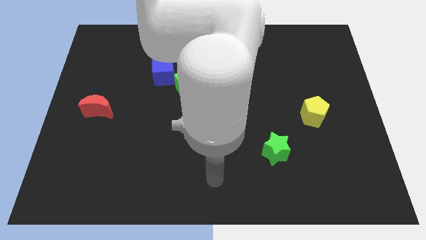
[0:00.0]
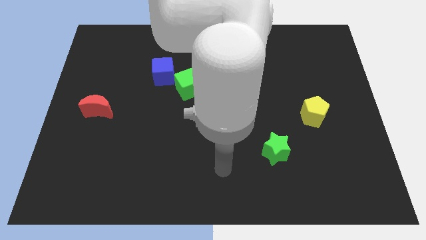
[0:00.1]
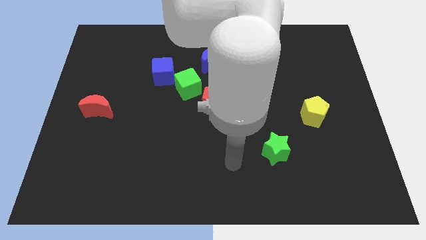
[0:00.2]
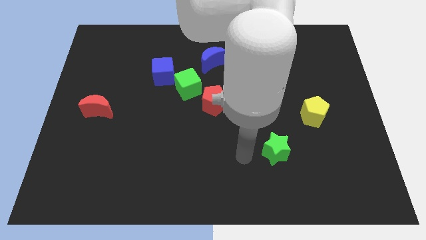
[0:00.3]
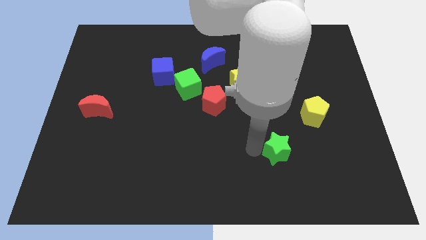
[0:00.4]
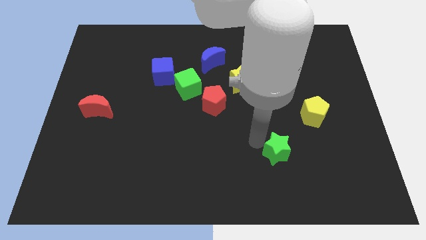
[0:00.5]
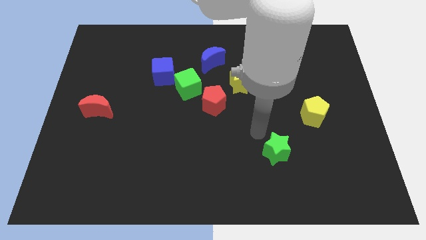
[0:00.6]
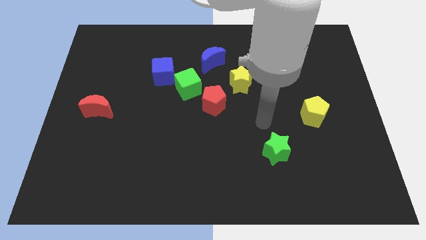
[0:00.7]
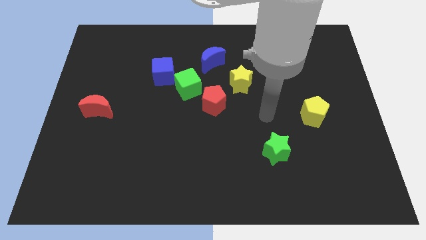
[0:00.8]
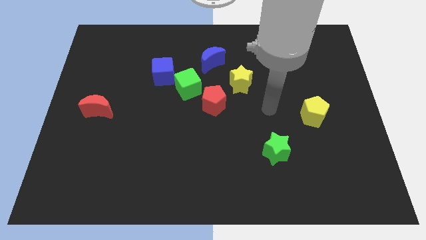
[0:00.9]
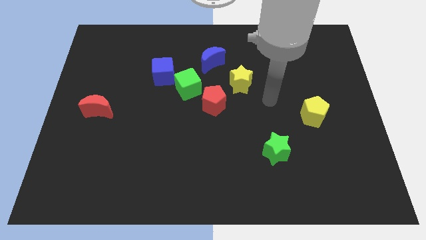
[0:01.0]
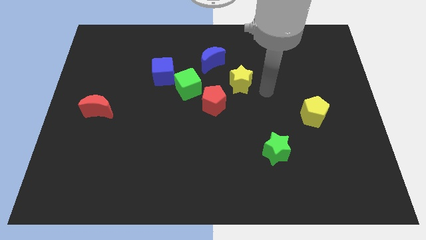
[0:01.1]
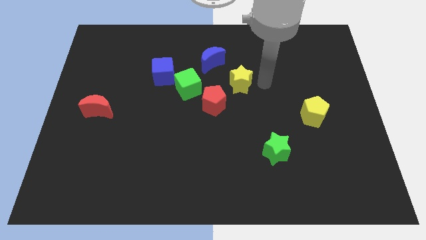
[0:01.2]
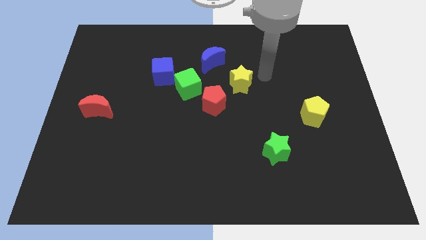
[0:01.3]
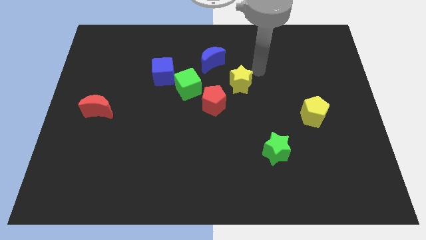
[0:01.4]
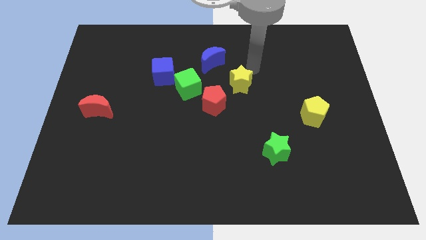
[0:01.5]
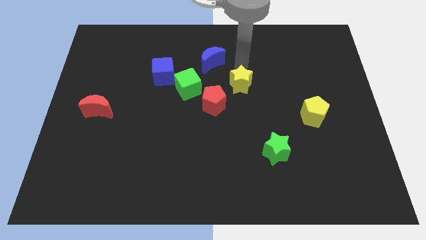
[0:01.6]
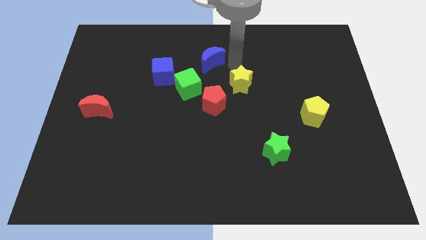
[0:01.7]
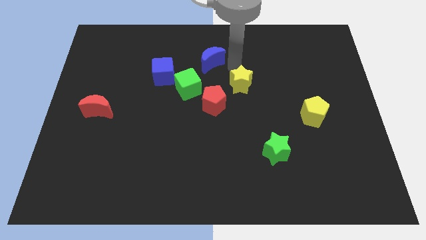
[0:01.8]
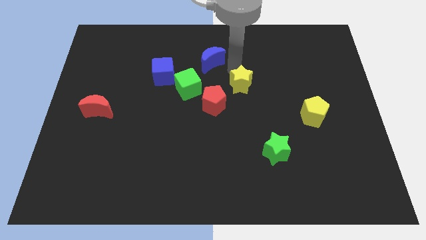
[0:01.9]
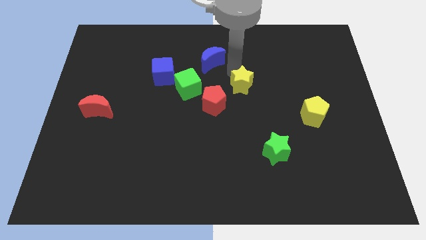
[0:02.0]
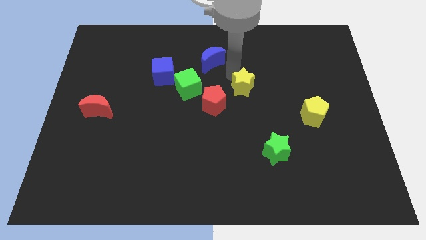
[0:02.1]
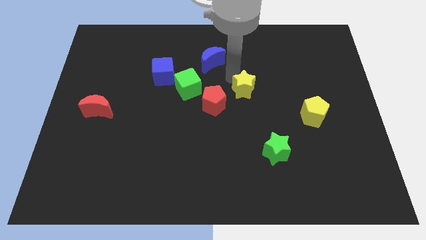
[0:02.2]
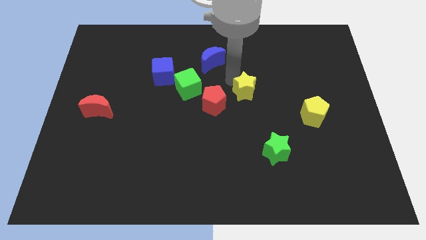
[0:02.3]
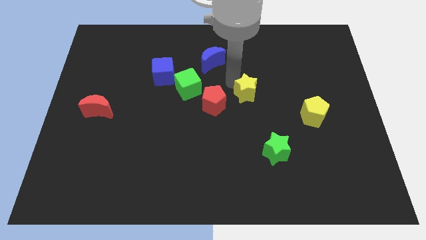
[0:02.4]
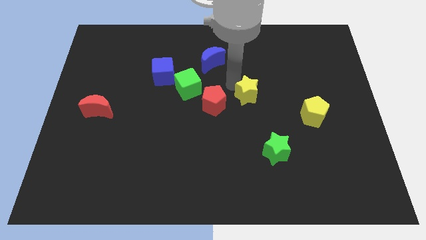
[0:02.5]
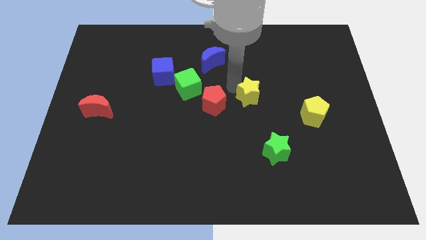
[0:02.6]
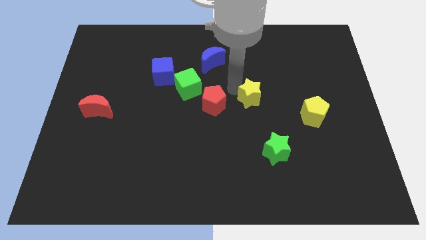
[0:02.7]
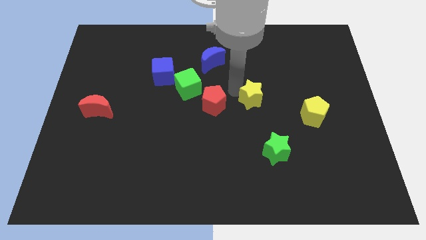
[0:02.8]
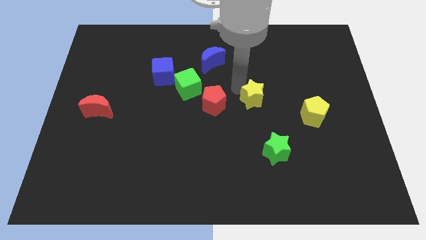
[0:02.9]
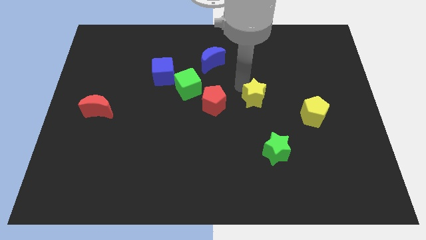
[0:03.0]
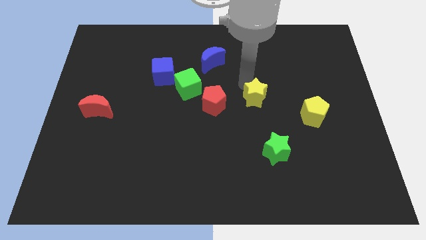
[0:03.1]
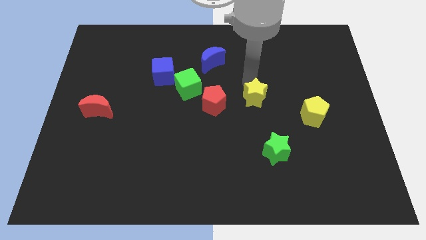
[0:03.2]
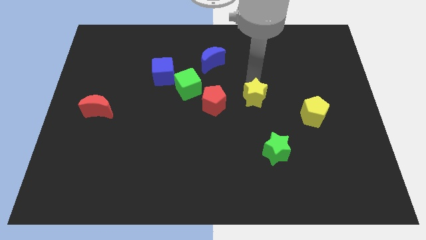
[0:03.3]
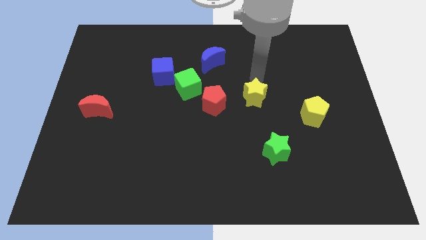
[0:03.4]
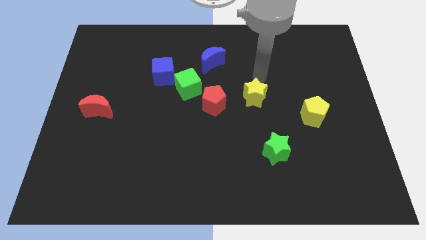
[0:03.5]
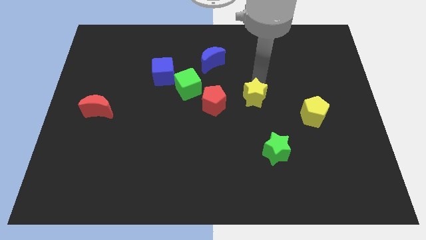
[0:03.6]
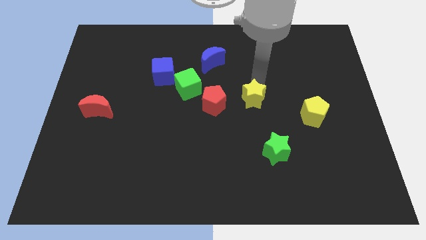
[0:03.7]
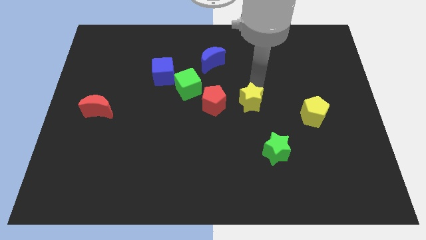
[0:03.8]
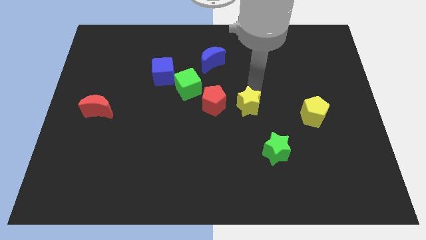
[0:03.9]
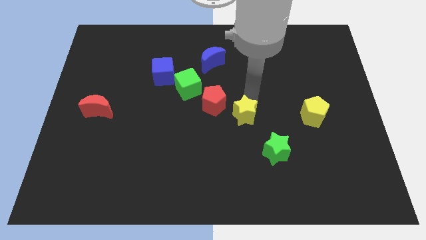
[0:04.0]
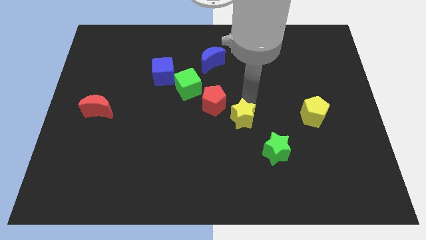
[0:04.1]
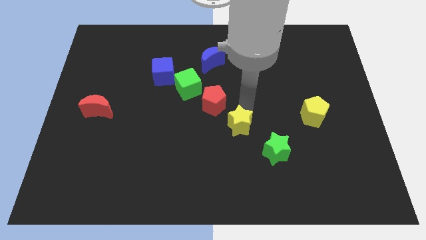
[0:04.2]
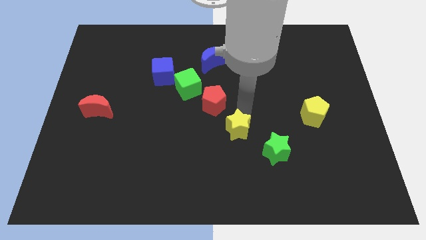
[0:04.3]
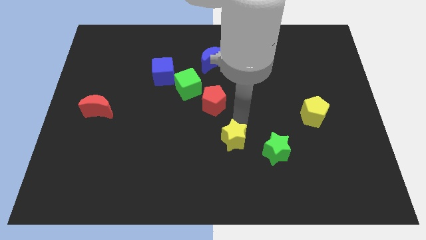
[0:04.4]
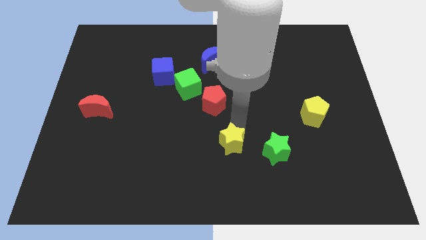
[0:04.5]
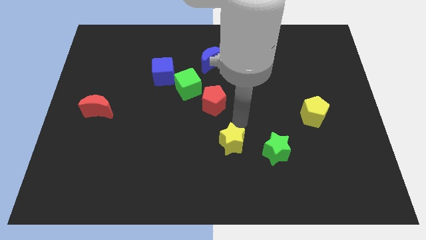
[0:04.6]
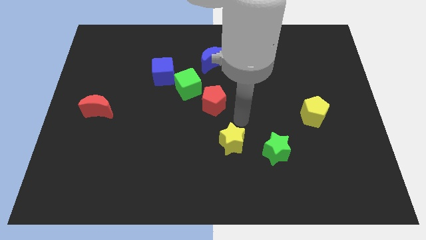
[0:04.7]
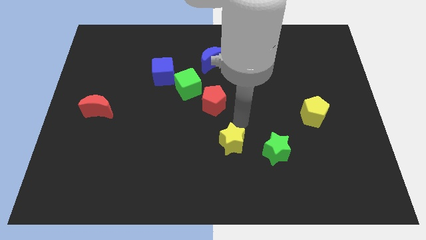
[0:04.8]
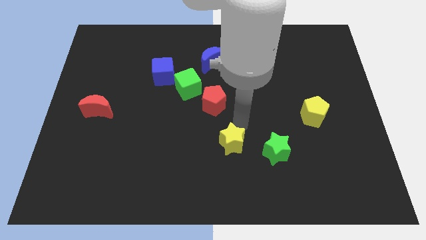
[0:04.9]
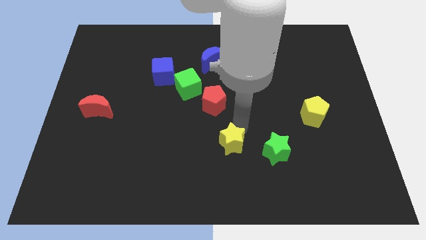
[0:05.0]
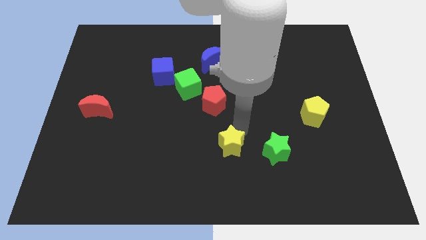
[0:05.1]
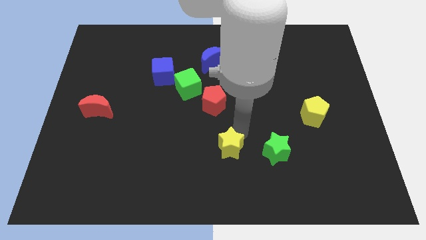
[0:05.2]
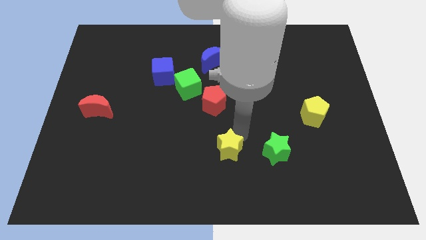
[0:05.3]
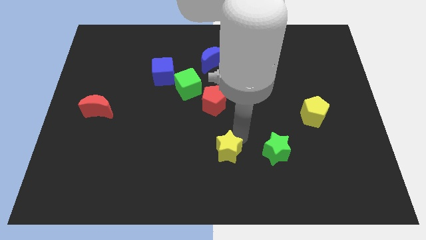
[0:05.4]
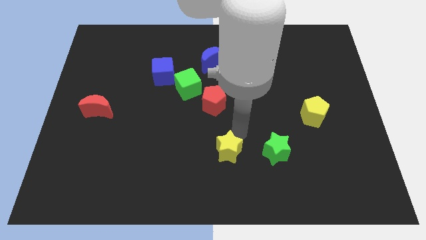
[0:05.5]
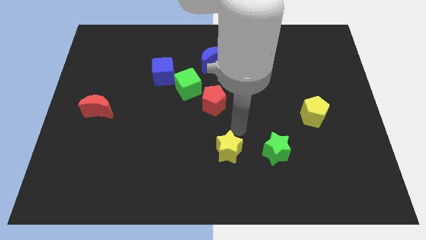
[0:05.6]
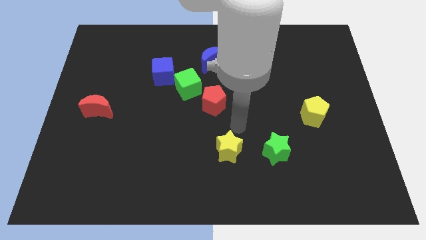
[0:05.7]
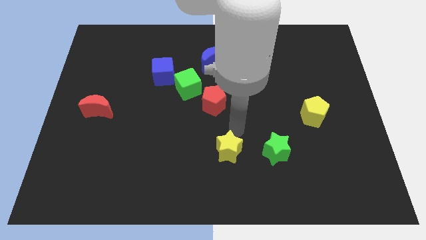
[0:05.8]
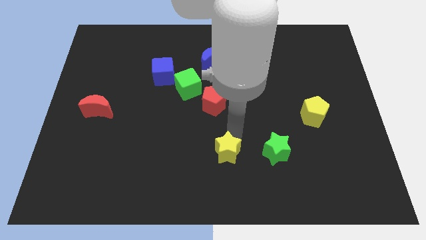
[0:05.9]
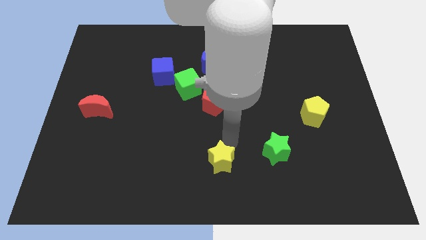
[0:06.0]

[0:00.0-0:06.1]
put the yellow star to the bottom side

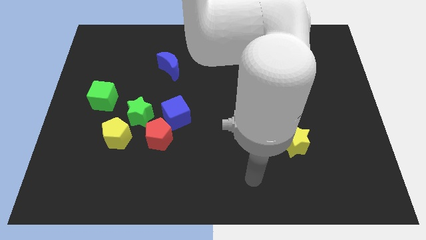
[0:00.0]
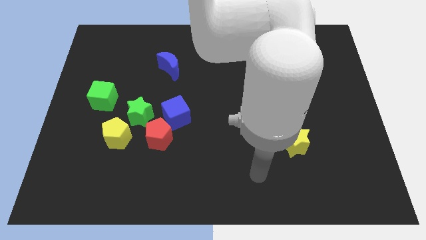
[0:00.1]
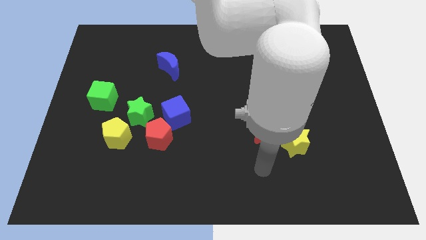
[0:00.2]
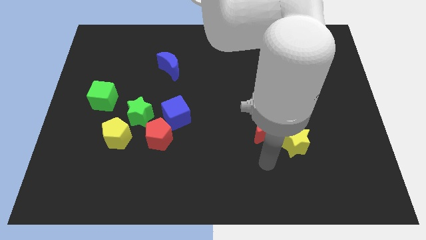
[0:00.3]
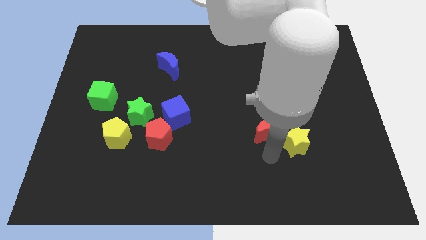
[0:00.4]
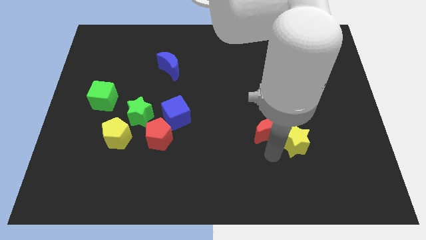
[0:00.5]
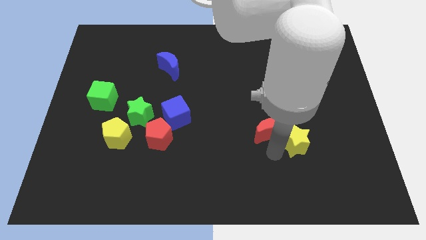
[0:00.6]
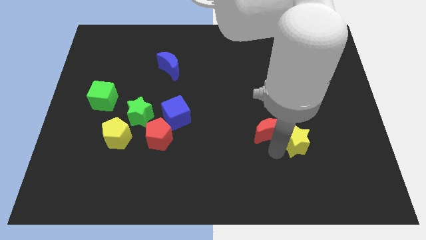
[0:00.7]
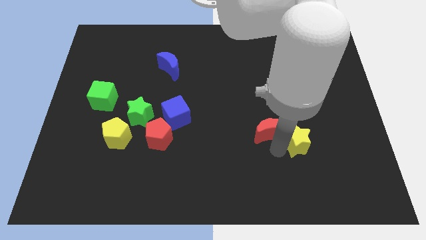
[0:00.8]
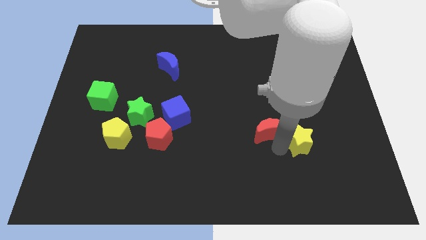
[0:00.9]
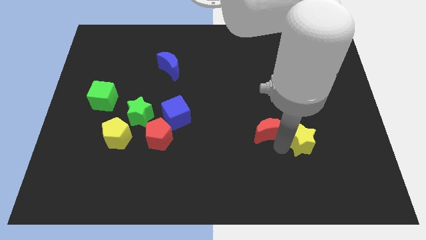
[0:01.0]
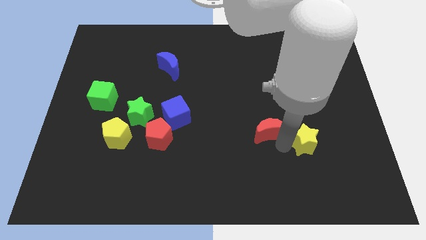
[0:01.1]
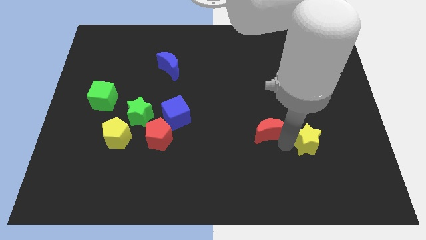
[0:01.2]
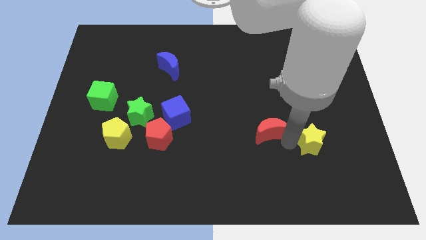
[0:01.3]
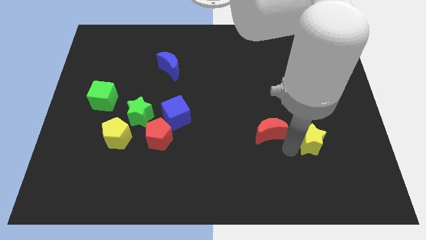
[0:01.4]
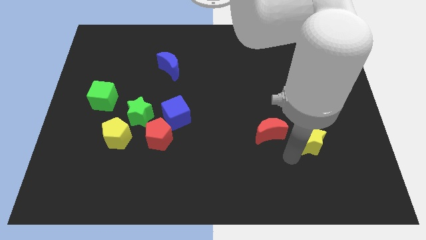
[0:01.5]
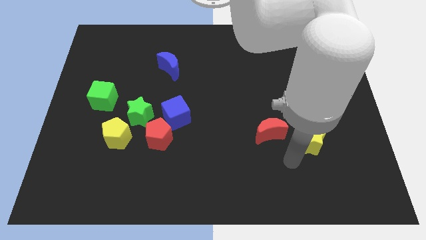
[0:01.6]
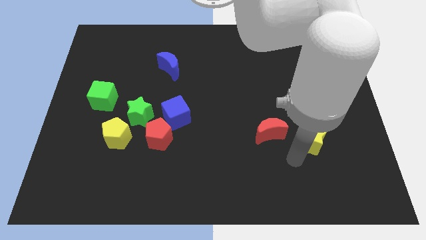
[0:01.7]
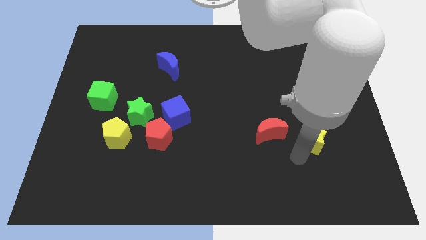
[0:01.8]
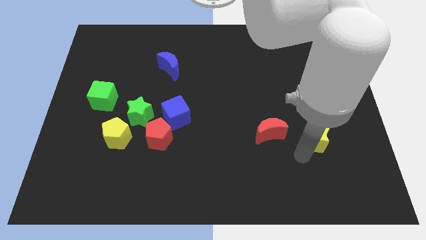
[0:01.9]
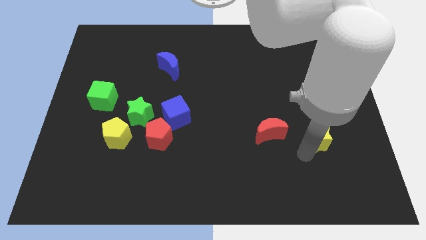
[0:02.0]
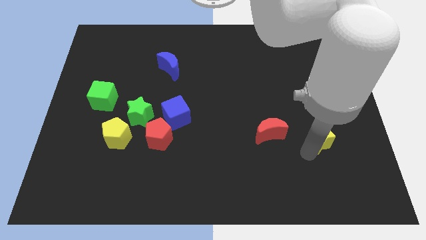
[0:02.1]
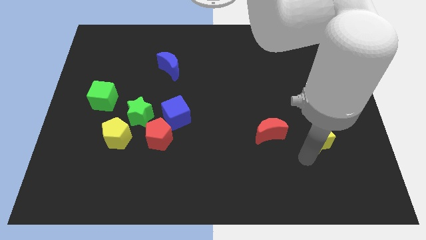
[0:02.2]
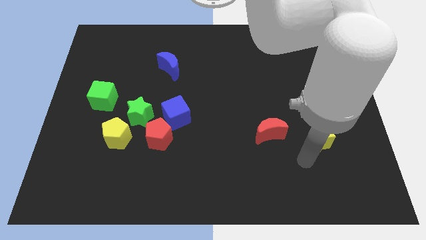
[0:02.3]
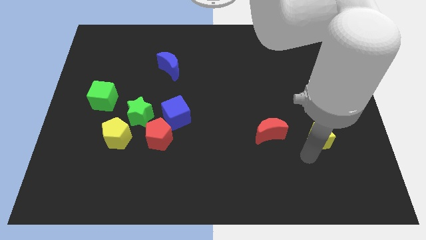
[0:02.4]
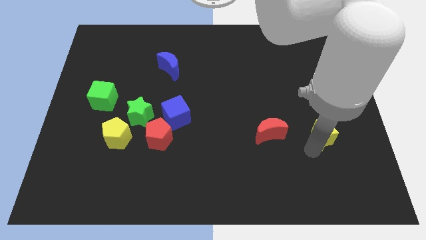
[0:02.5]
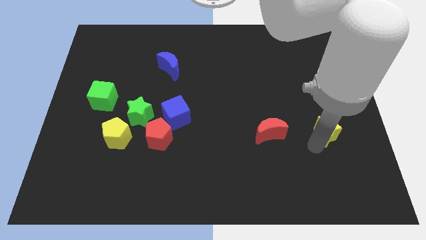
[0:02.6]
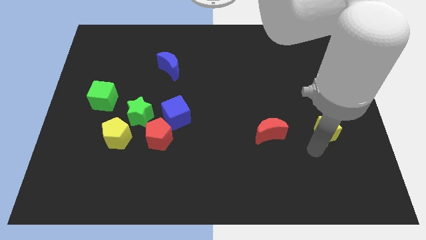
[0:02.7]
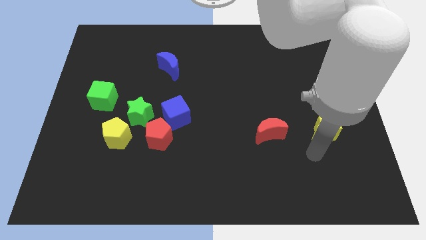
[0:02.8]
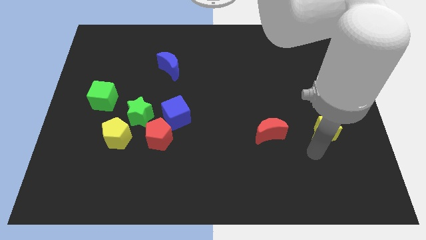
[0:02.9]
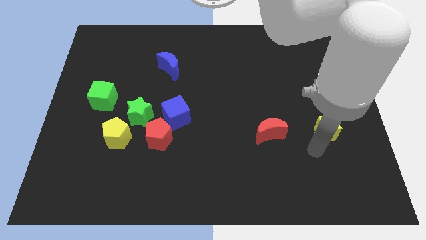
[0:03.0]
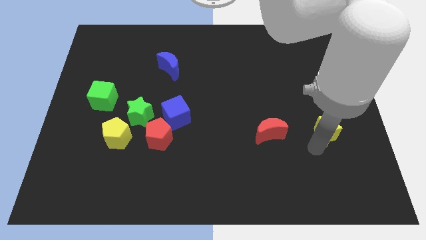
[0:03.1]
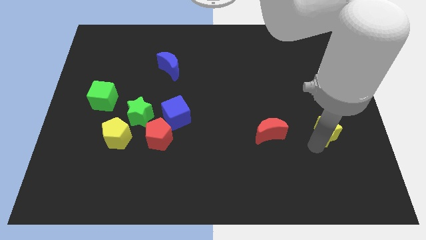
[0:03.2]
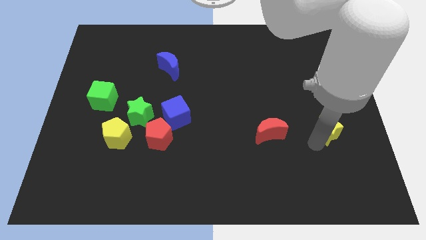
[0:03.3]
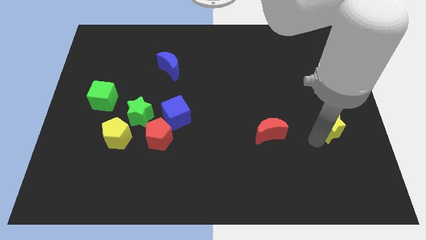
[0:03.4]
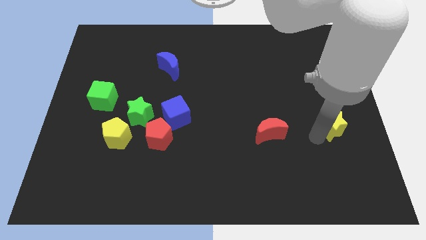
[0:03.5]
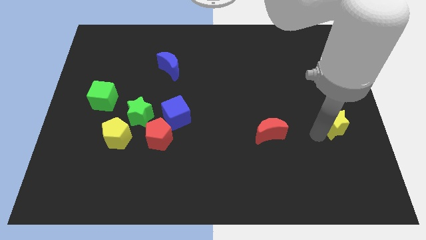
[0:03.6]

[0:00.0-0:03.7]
slide the yellow star to the center right
